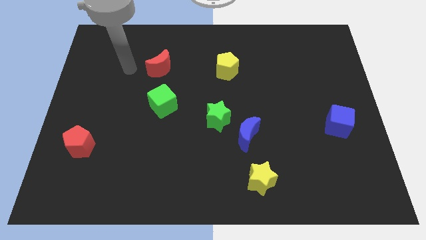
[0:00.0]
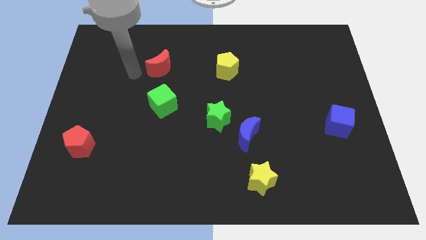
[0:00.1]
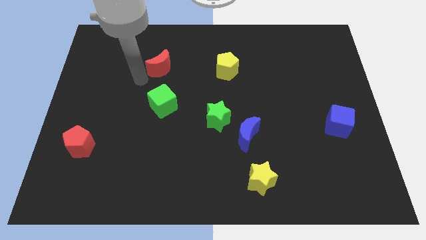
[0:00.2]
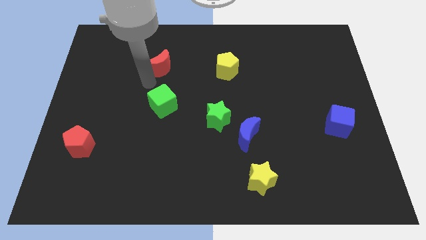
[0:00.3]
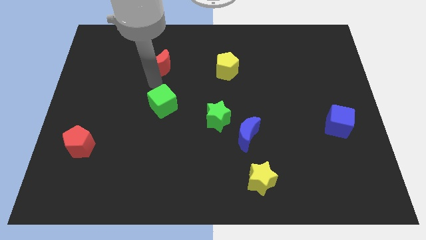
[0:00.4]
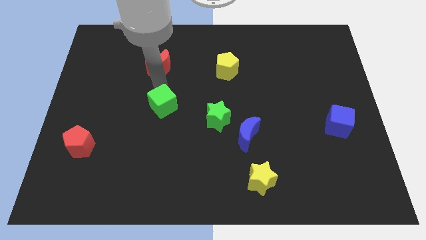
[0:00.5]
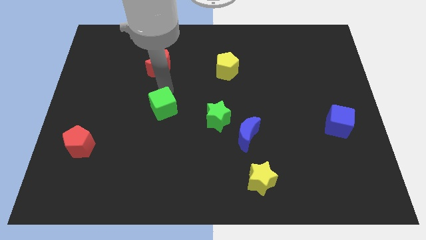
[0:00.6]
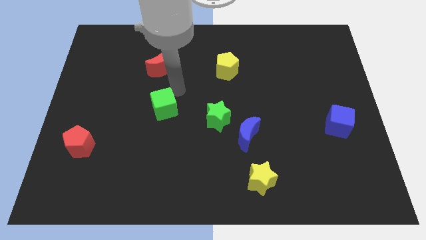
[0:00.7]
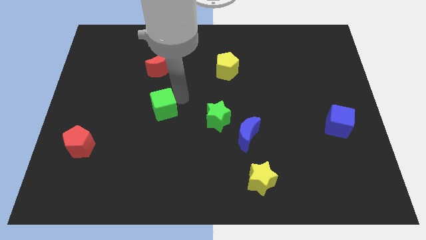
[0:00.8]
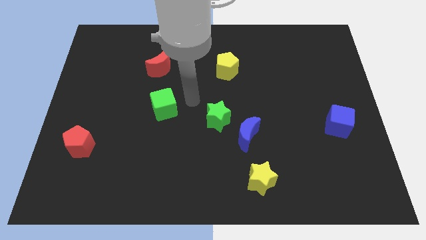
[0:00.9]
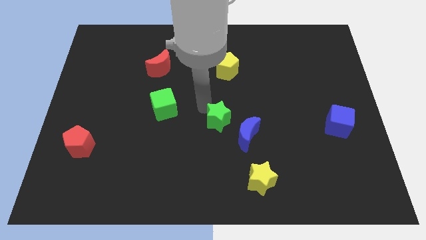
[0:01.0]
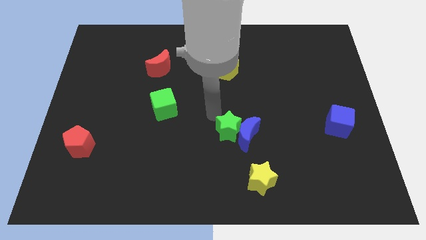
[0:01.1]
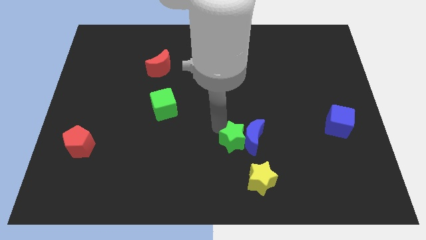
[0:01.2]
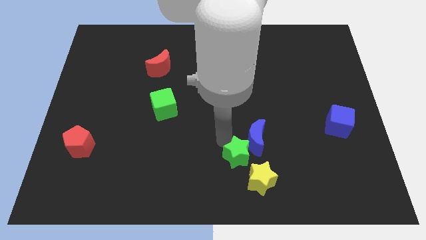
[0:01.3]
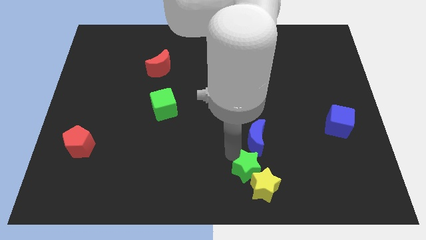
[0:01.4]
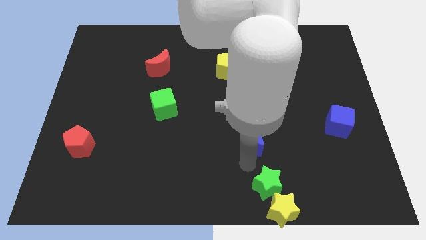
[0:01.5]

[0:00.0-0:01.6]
pull the blue moon apart from the green star

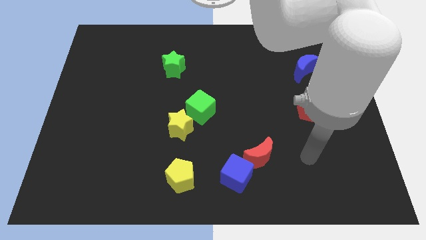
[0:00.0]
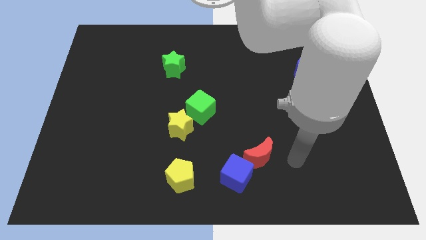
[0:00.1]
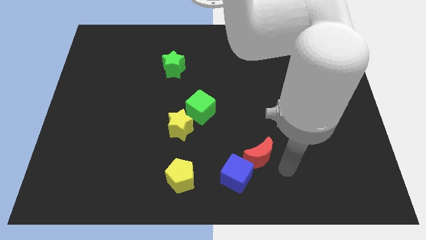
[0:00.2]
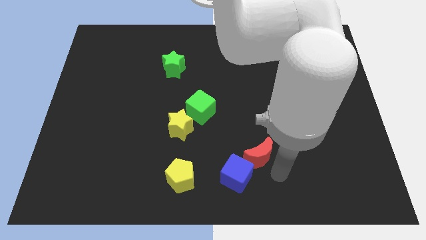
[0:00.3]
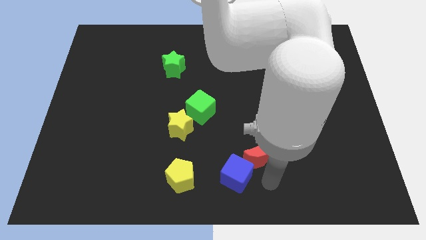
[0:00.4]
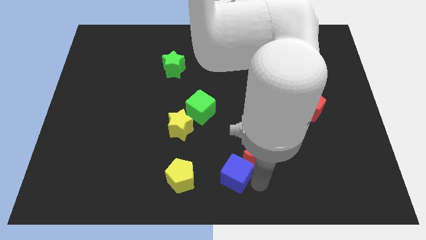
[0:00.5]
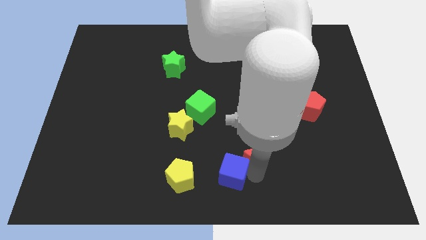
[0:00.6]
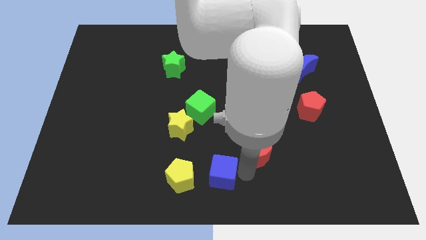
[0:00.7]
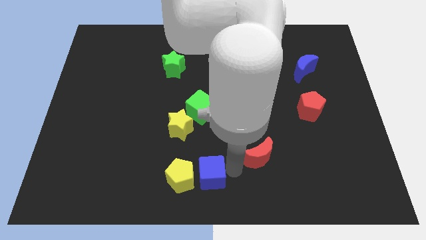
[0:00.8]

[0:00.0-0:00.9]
pull the red moon apart from the blue cube

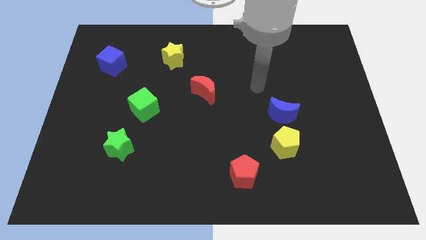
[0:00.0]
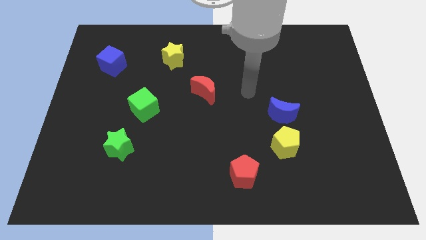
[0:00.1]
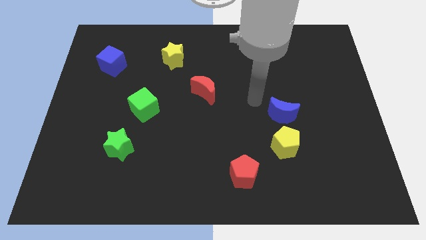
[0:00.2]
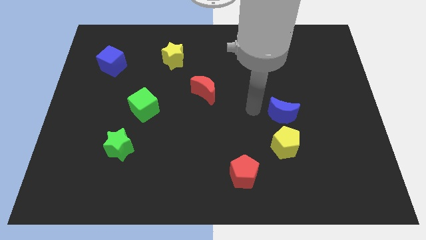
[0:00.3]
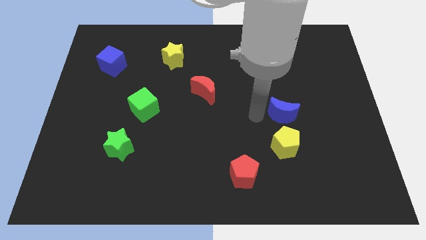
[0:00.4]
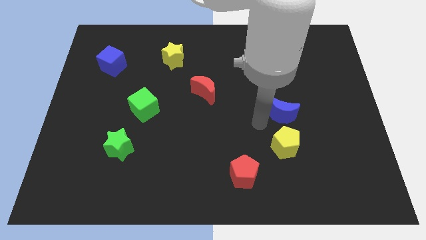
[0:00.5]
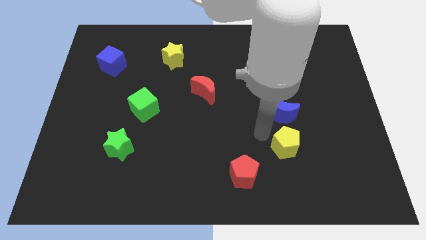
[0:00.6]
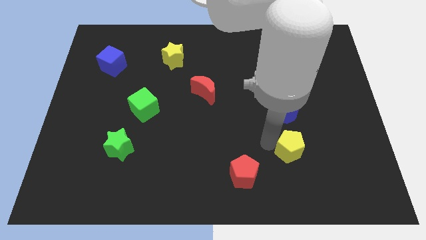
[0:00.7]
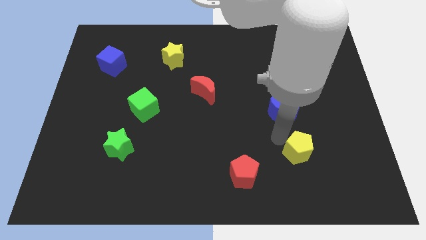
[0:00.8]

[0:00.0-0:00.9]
separate the blue moon from the yellow pentagon

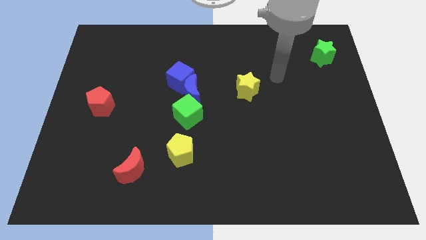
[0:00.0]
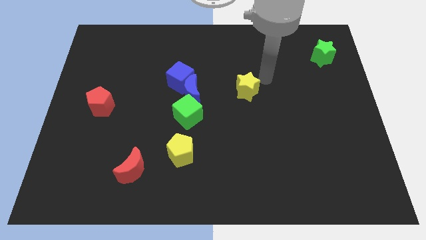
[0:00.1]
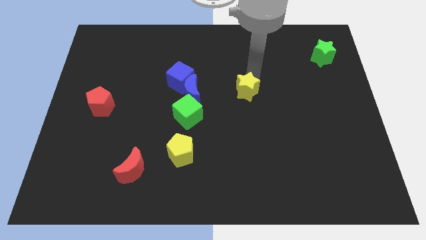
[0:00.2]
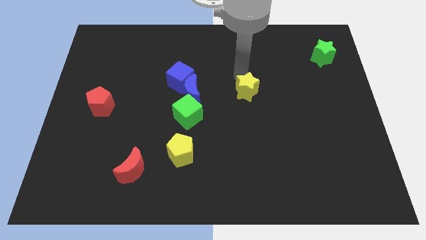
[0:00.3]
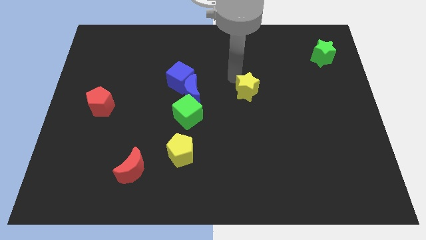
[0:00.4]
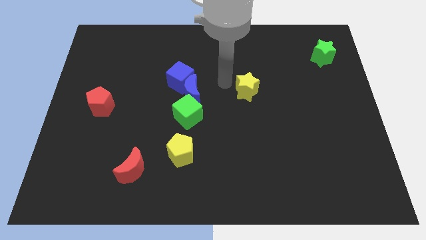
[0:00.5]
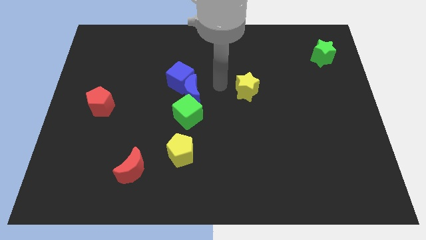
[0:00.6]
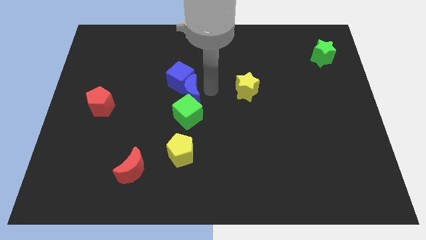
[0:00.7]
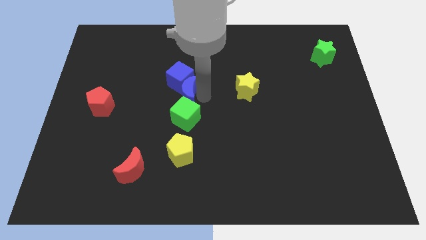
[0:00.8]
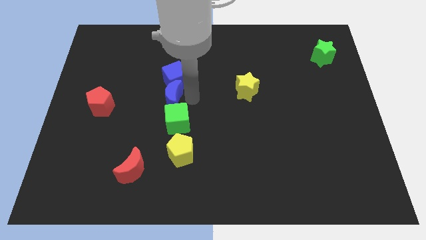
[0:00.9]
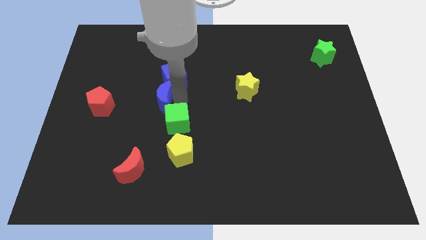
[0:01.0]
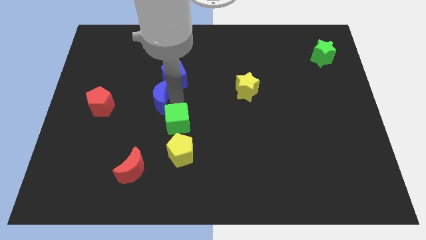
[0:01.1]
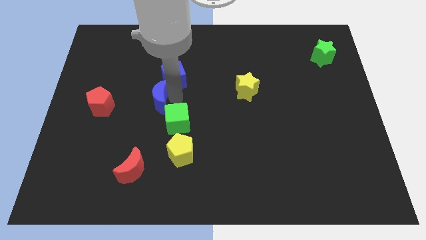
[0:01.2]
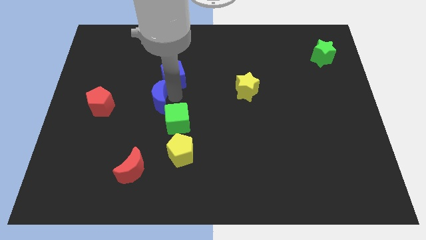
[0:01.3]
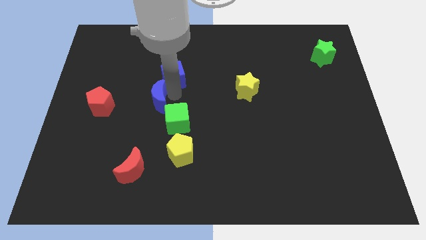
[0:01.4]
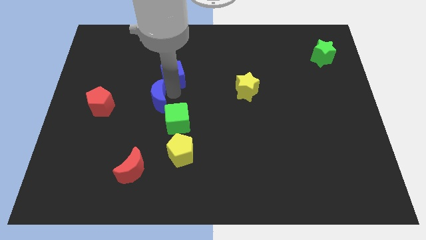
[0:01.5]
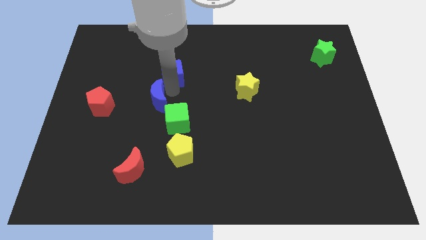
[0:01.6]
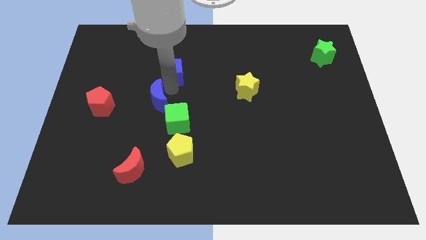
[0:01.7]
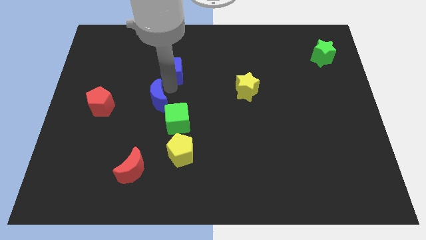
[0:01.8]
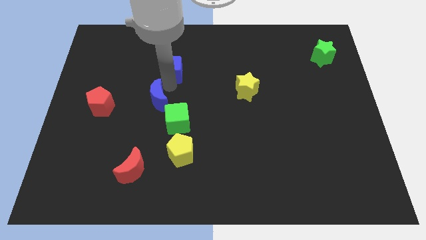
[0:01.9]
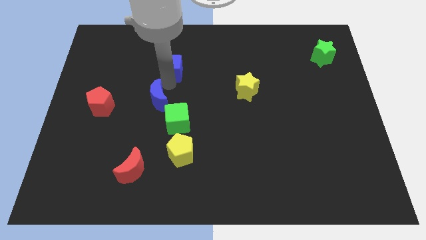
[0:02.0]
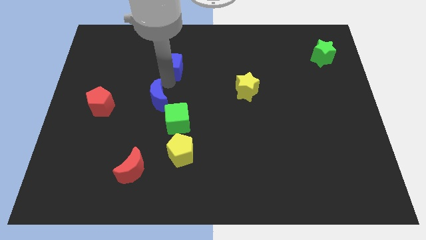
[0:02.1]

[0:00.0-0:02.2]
pull the blue cube apart from the blue moon

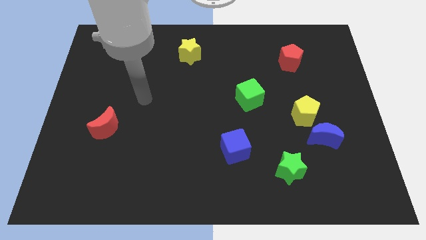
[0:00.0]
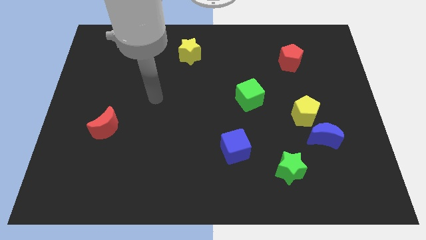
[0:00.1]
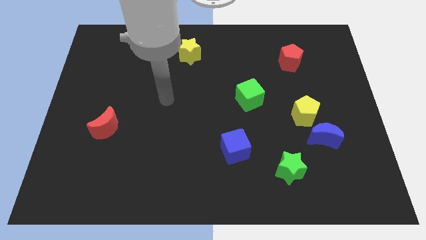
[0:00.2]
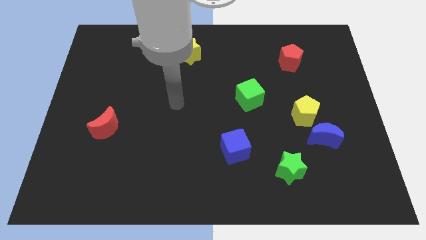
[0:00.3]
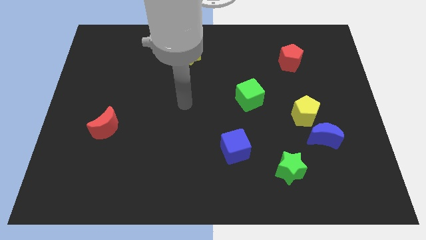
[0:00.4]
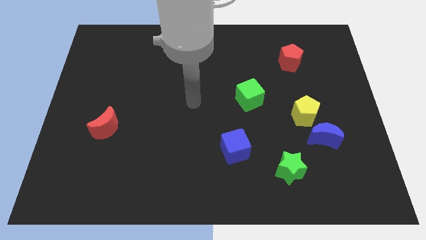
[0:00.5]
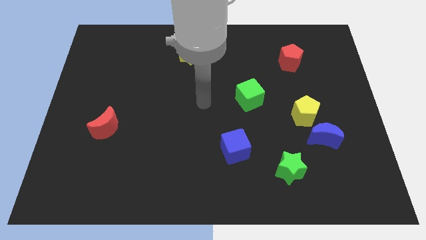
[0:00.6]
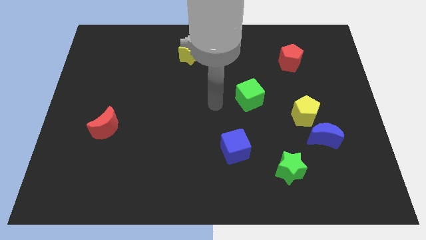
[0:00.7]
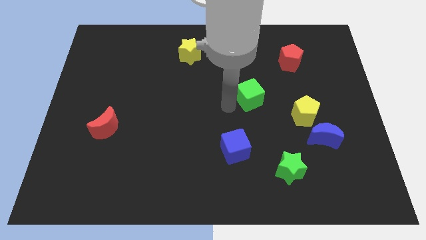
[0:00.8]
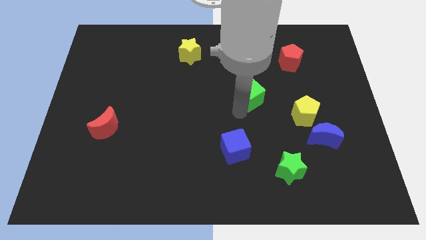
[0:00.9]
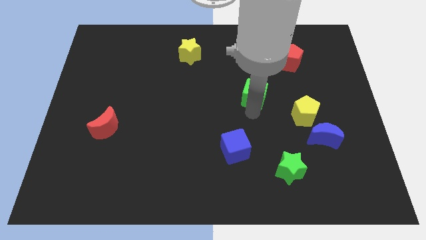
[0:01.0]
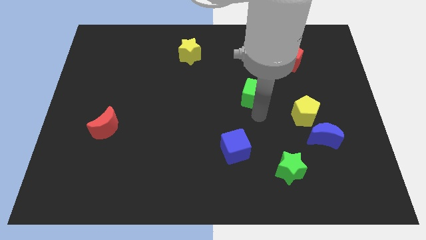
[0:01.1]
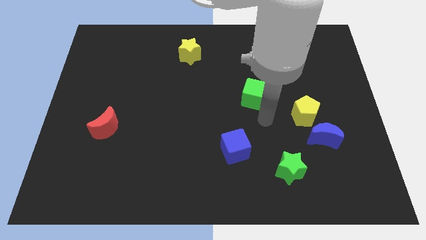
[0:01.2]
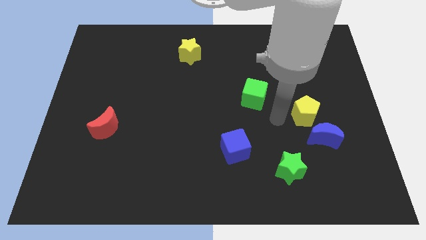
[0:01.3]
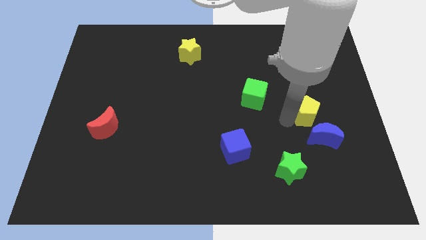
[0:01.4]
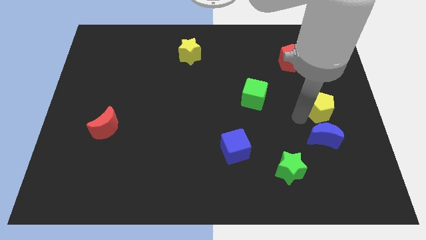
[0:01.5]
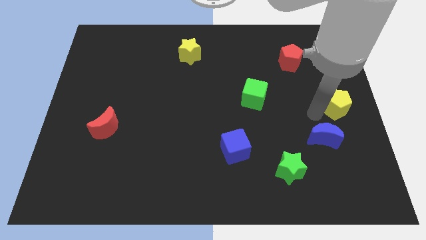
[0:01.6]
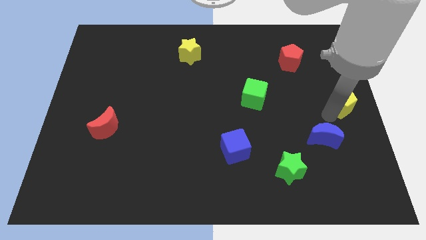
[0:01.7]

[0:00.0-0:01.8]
pull the blue moon apart from the yellow pentagon

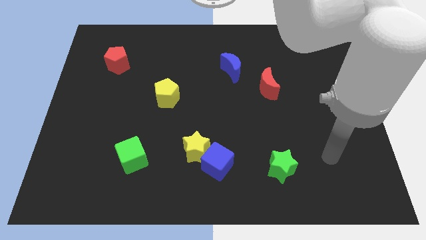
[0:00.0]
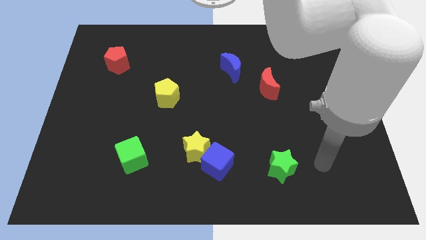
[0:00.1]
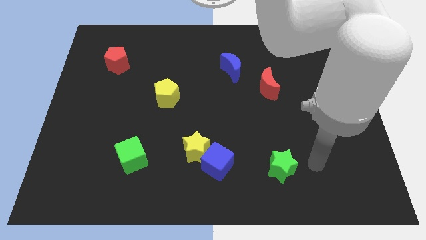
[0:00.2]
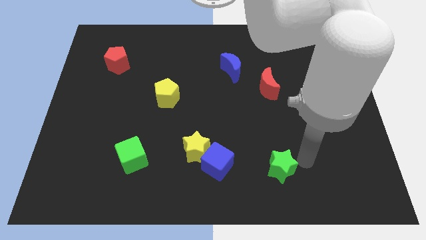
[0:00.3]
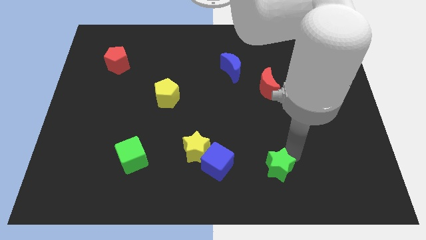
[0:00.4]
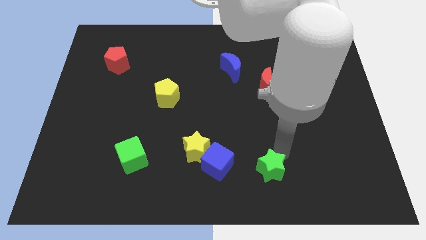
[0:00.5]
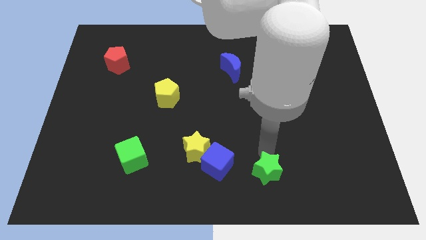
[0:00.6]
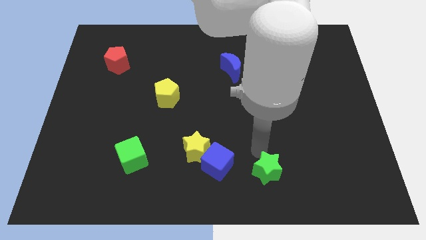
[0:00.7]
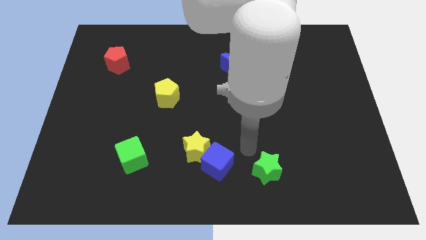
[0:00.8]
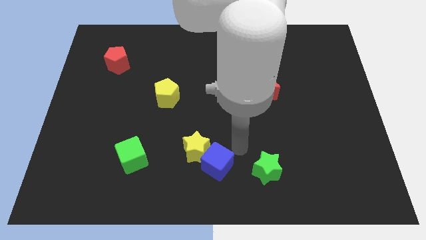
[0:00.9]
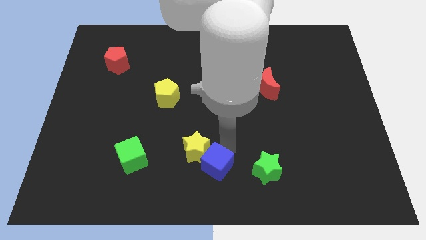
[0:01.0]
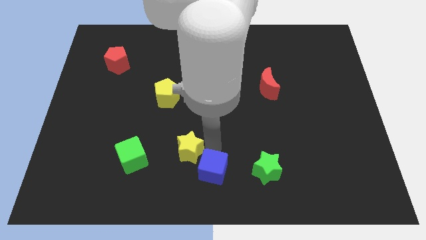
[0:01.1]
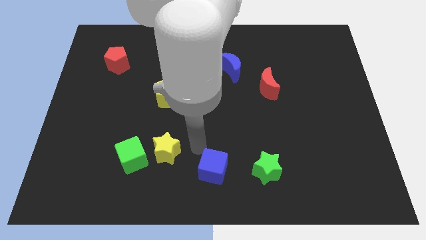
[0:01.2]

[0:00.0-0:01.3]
move the blue cube away from the yellow star

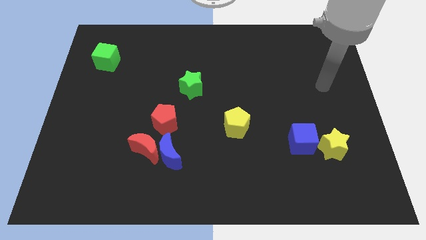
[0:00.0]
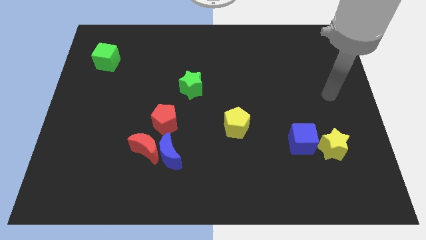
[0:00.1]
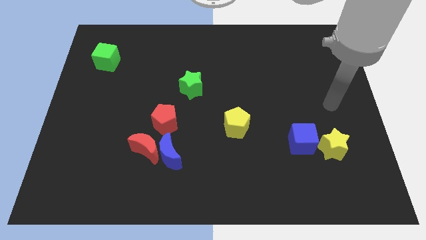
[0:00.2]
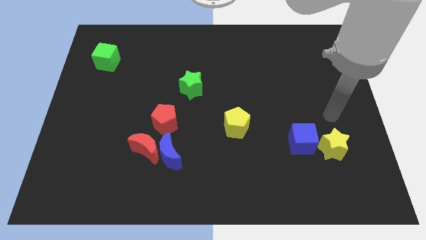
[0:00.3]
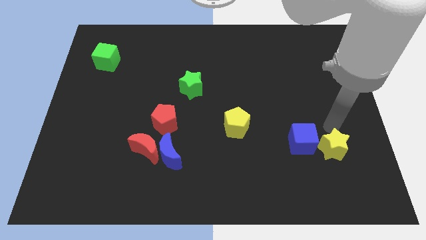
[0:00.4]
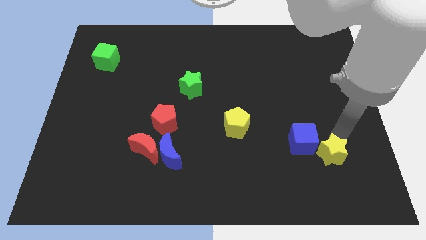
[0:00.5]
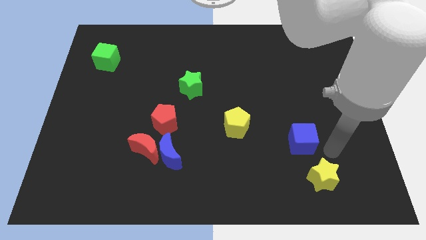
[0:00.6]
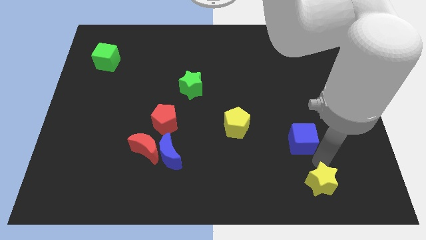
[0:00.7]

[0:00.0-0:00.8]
separate the blue cube from the yellow star
